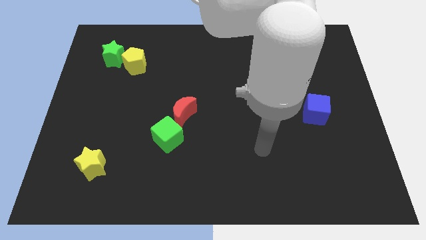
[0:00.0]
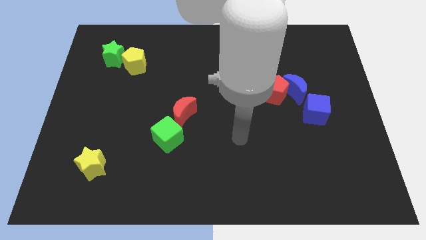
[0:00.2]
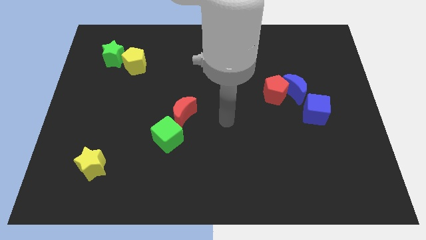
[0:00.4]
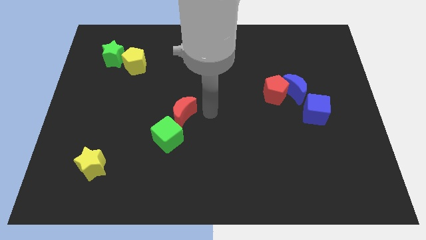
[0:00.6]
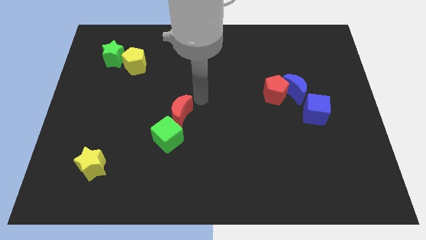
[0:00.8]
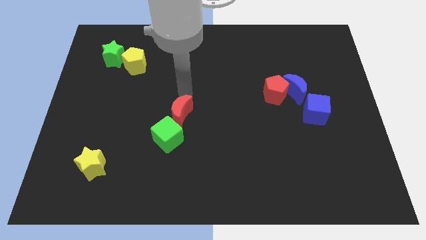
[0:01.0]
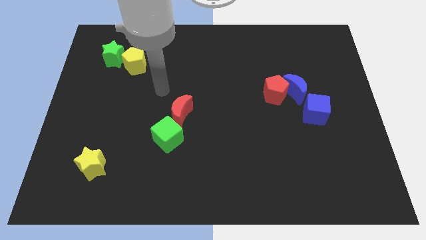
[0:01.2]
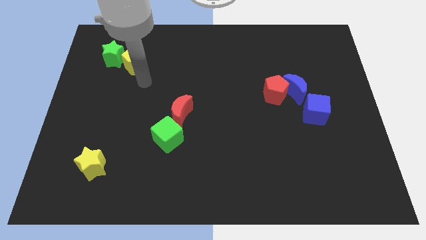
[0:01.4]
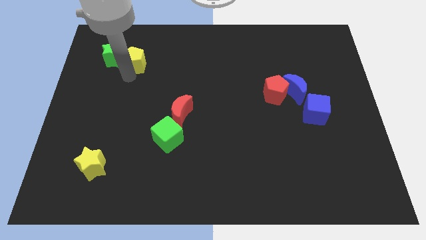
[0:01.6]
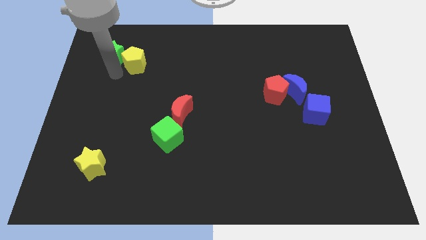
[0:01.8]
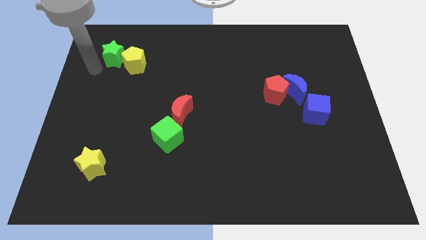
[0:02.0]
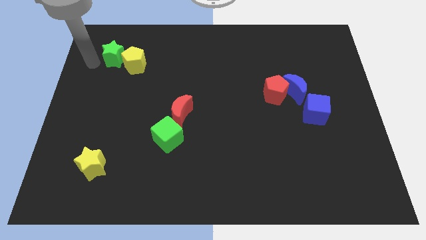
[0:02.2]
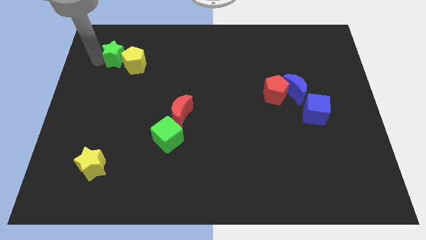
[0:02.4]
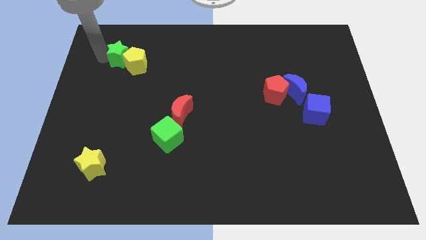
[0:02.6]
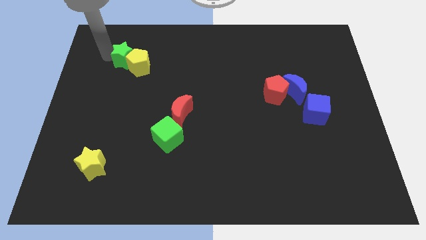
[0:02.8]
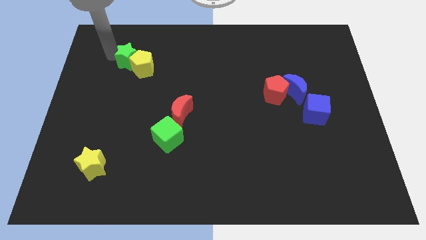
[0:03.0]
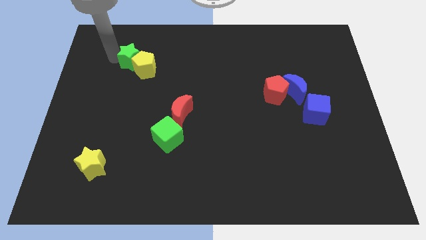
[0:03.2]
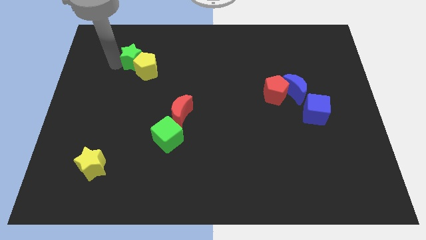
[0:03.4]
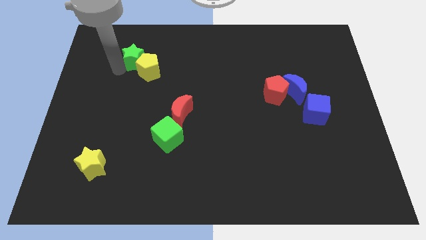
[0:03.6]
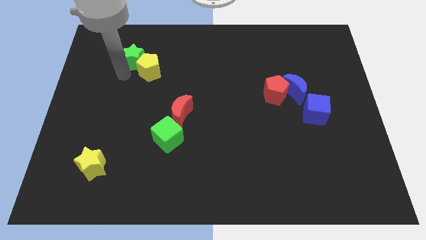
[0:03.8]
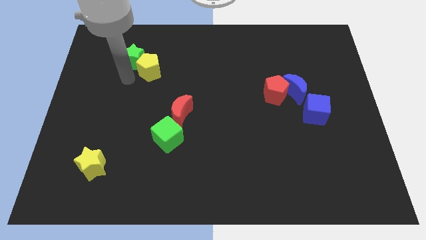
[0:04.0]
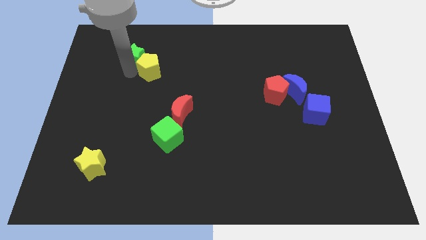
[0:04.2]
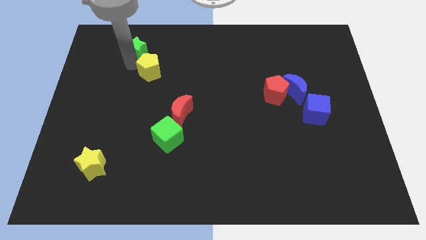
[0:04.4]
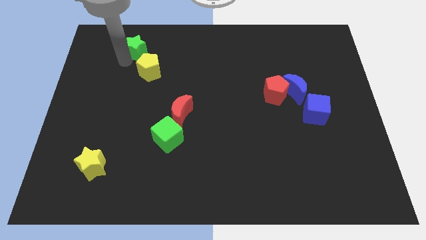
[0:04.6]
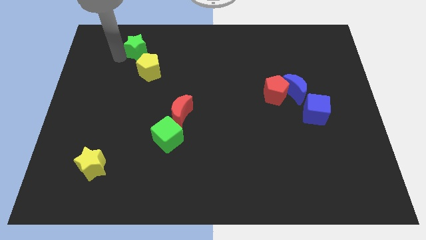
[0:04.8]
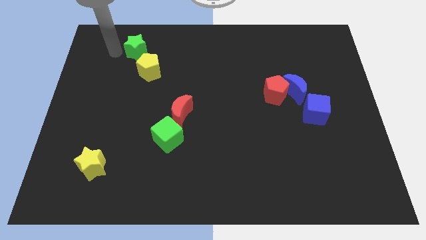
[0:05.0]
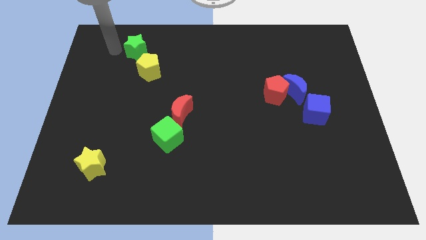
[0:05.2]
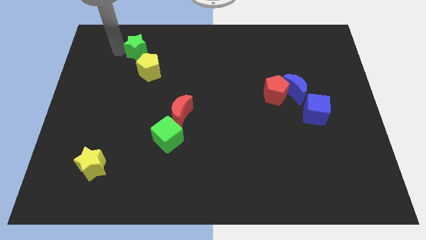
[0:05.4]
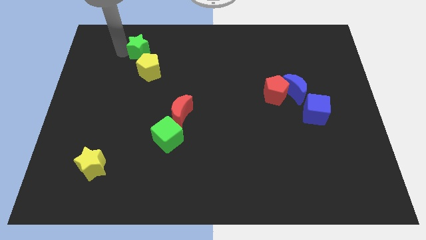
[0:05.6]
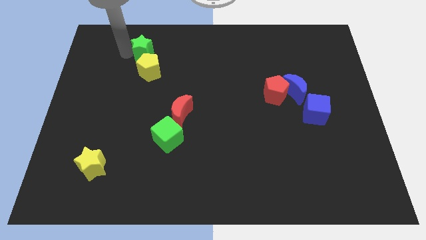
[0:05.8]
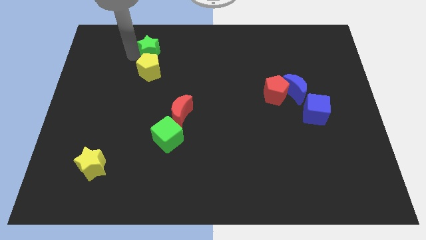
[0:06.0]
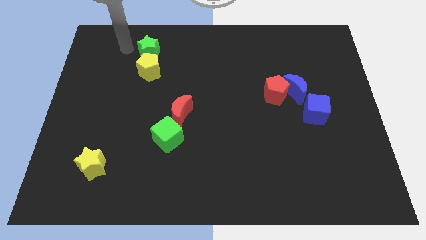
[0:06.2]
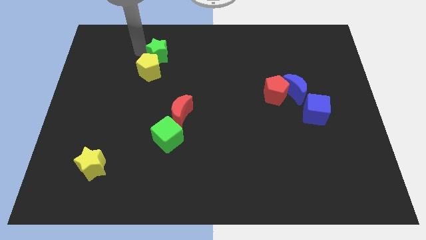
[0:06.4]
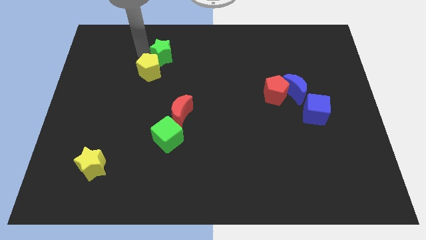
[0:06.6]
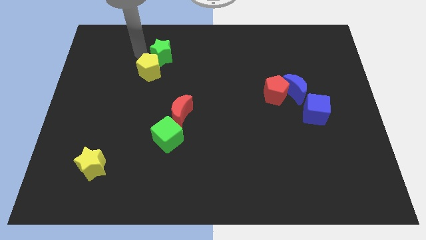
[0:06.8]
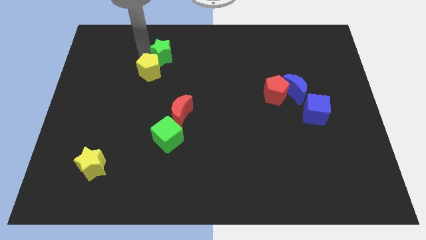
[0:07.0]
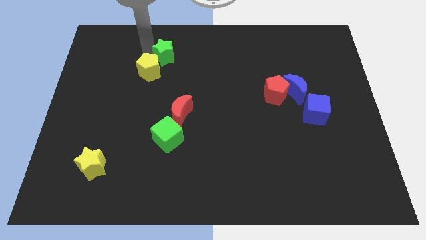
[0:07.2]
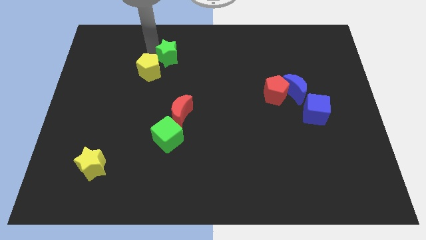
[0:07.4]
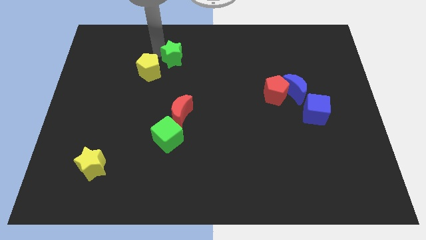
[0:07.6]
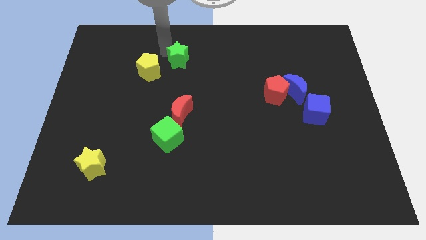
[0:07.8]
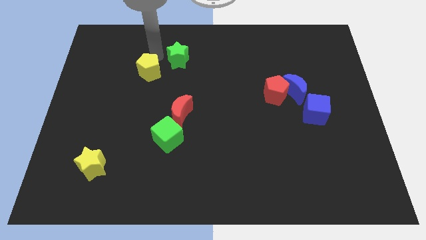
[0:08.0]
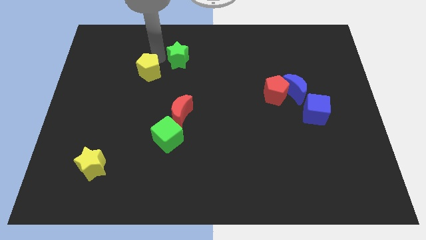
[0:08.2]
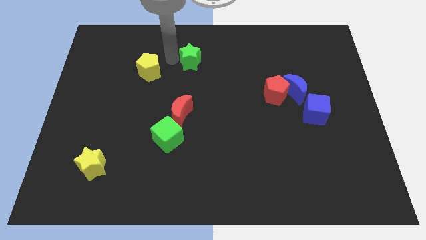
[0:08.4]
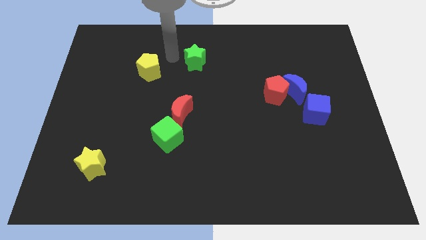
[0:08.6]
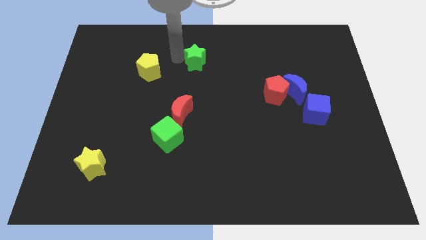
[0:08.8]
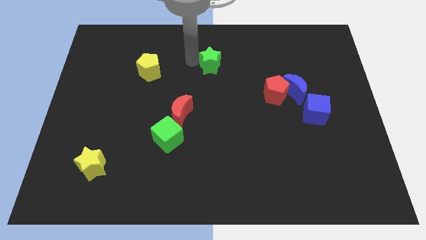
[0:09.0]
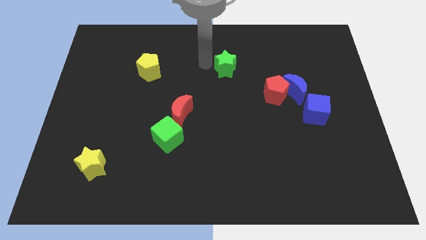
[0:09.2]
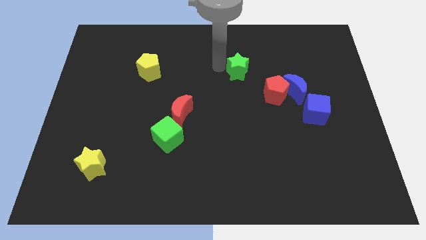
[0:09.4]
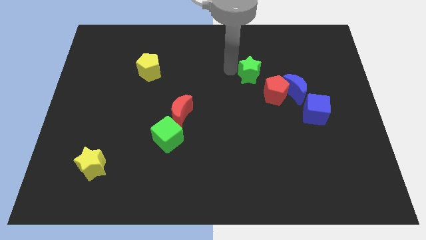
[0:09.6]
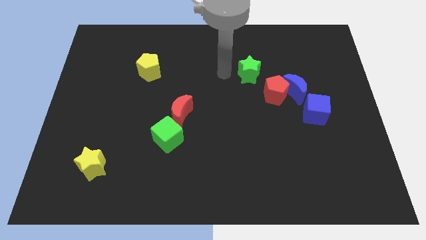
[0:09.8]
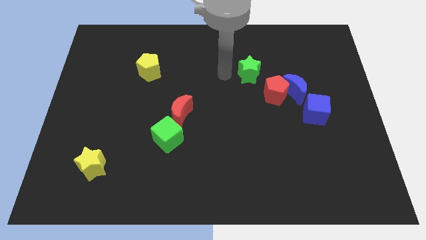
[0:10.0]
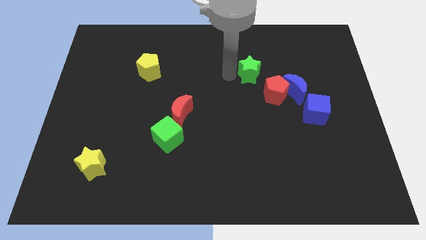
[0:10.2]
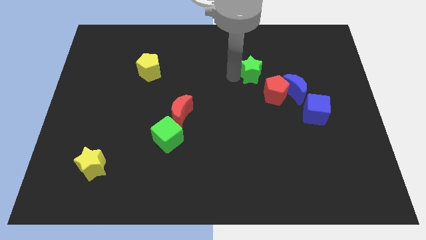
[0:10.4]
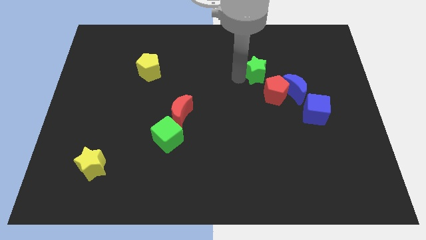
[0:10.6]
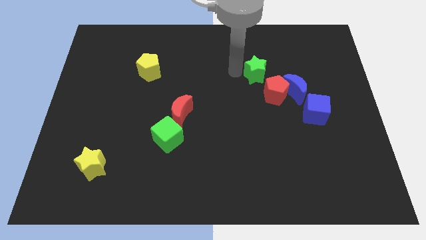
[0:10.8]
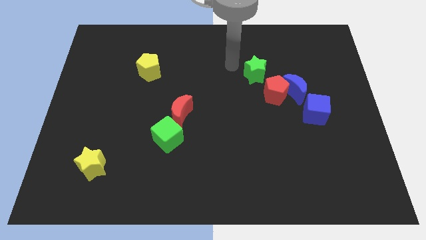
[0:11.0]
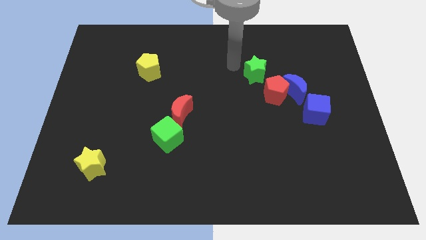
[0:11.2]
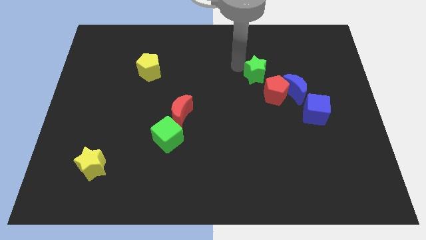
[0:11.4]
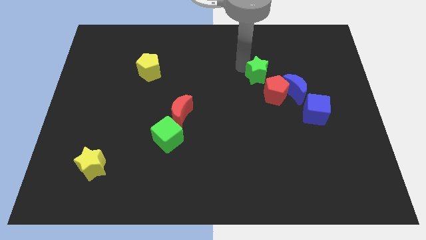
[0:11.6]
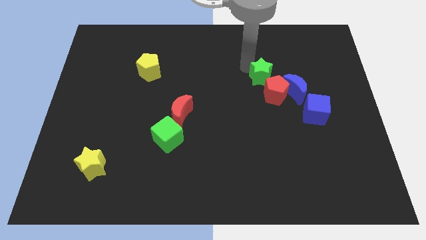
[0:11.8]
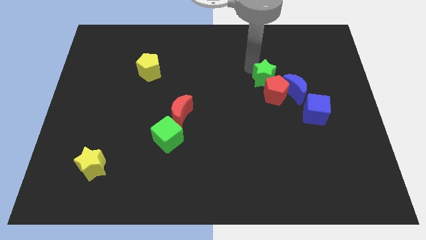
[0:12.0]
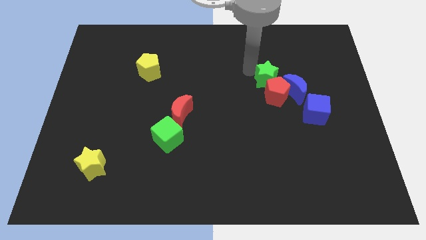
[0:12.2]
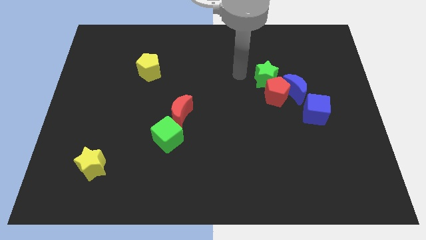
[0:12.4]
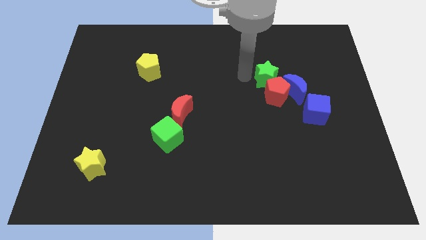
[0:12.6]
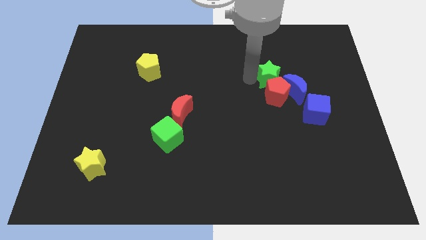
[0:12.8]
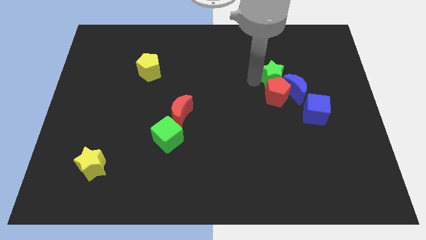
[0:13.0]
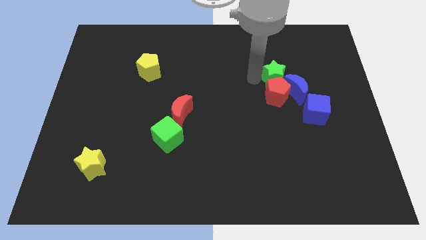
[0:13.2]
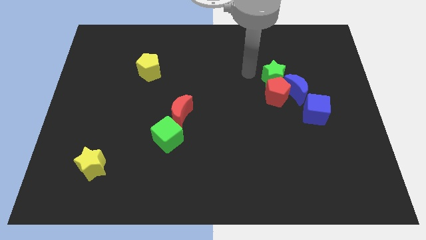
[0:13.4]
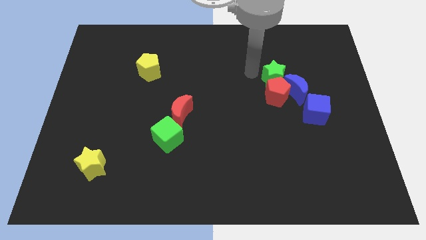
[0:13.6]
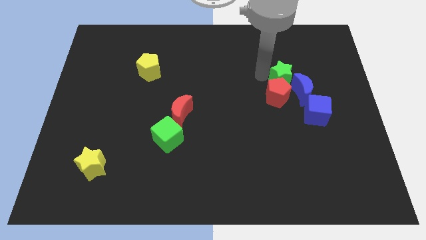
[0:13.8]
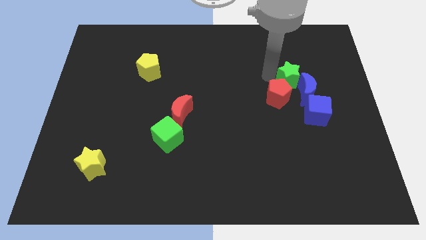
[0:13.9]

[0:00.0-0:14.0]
move the green star next to the blue moon

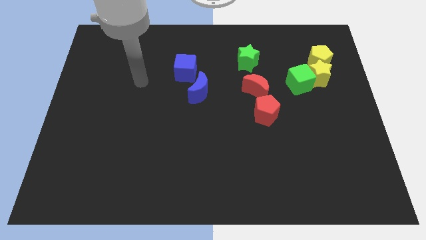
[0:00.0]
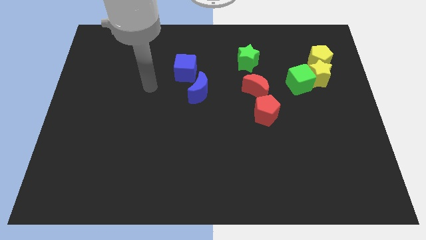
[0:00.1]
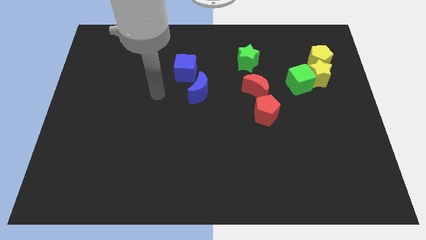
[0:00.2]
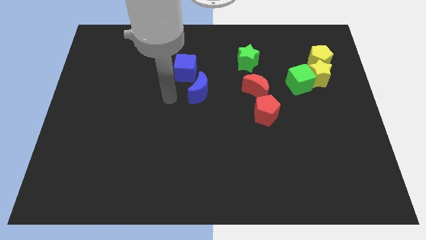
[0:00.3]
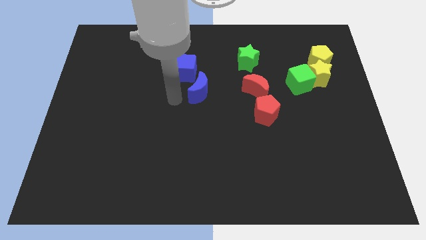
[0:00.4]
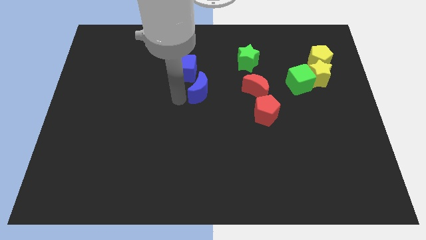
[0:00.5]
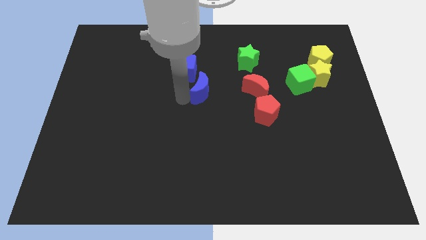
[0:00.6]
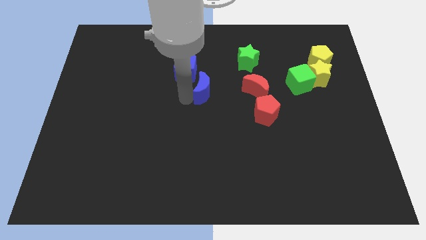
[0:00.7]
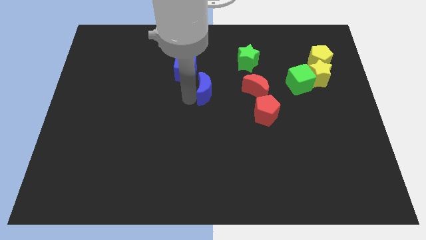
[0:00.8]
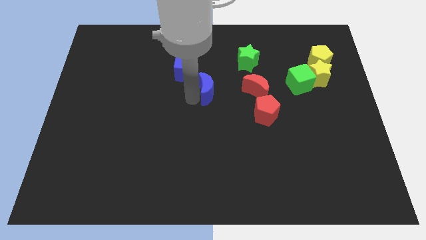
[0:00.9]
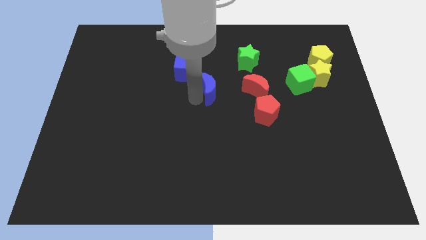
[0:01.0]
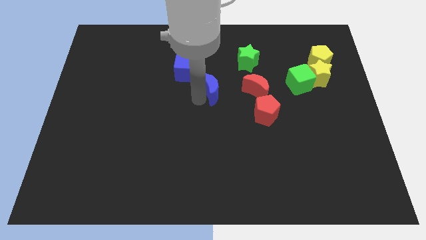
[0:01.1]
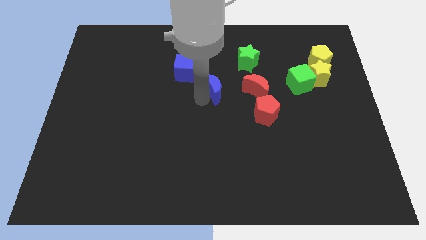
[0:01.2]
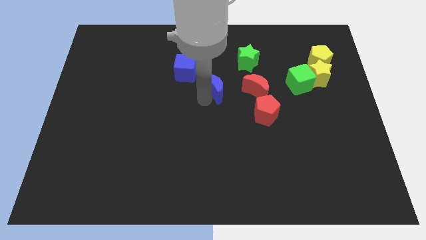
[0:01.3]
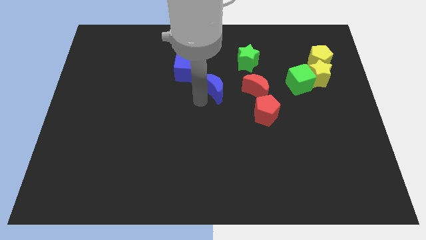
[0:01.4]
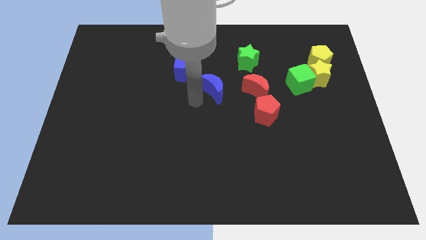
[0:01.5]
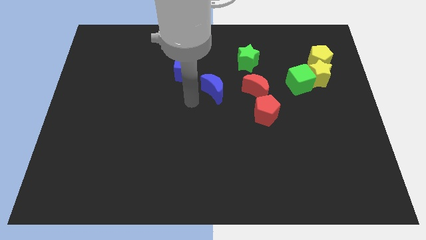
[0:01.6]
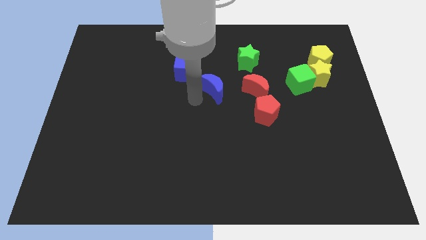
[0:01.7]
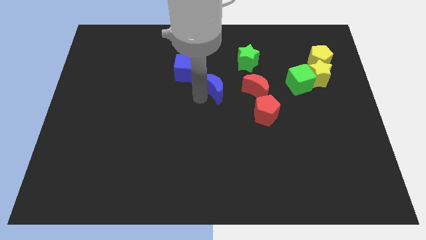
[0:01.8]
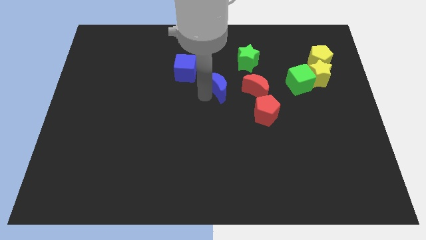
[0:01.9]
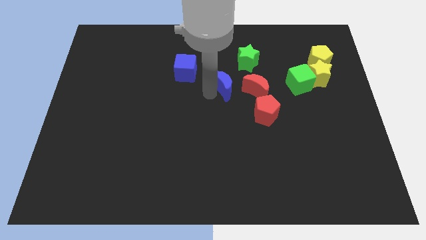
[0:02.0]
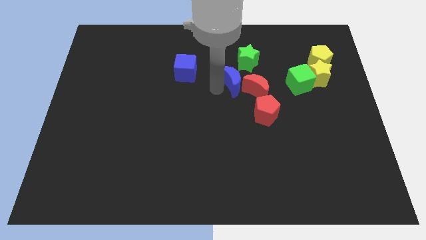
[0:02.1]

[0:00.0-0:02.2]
move the blue moon close to the red moon
